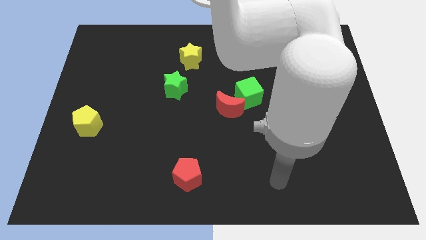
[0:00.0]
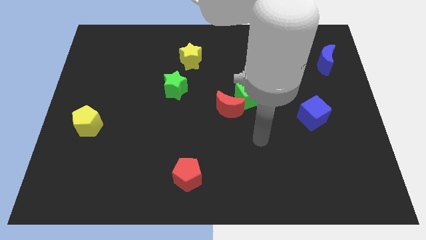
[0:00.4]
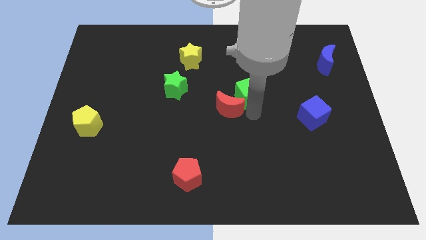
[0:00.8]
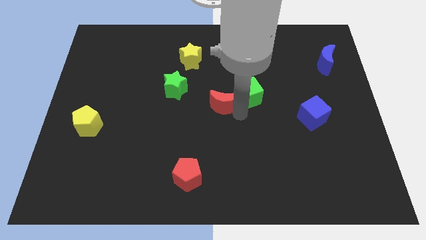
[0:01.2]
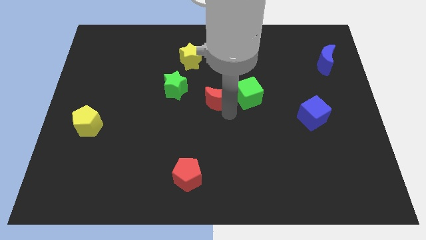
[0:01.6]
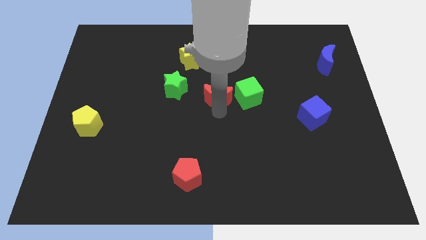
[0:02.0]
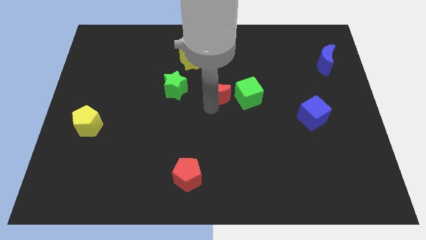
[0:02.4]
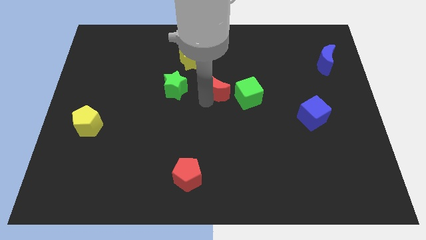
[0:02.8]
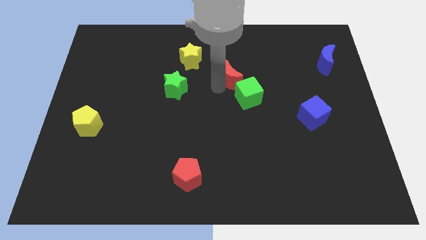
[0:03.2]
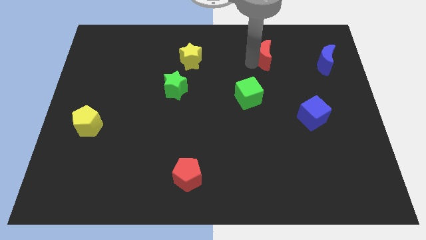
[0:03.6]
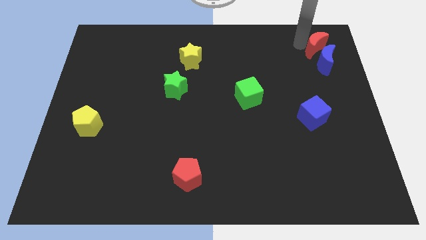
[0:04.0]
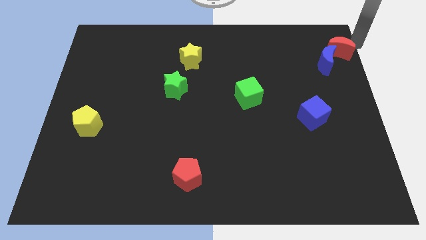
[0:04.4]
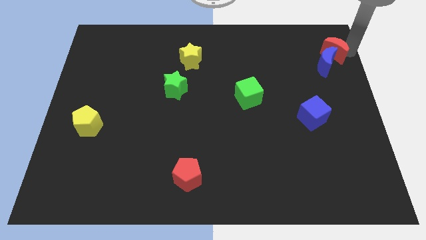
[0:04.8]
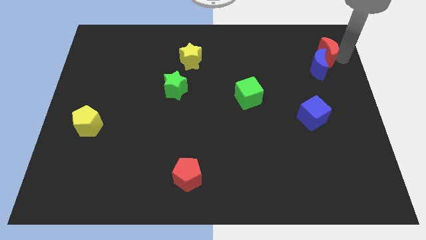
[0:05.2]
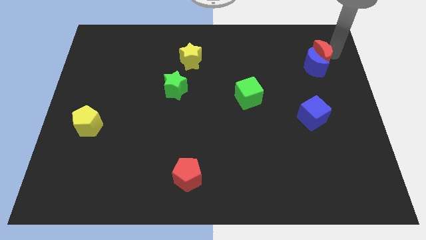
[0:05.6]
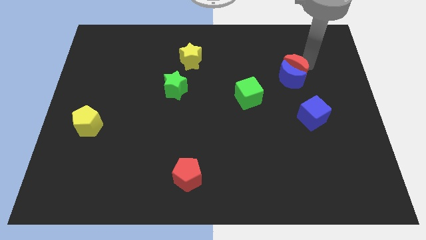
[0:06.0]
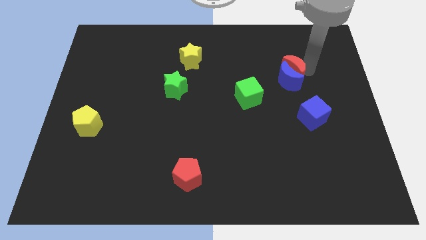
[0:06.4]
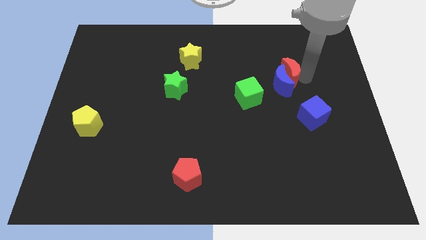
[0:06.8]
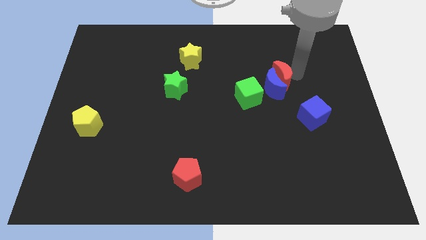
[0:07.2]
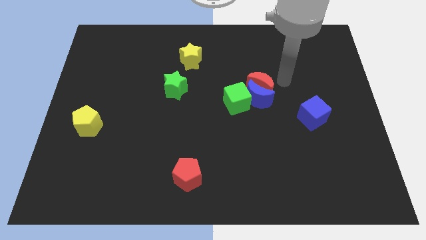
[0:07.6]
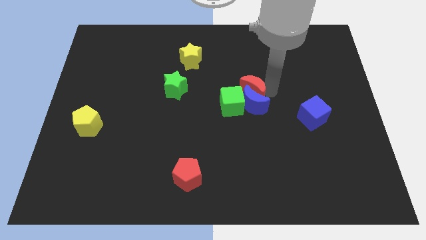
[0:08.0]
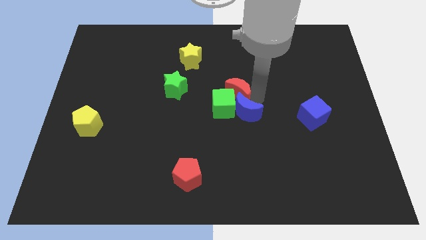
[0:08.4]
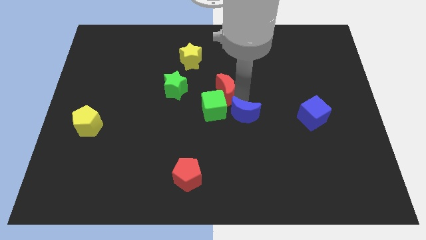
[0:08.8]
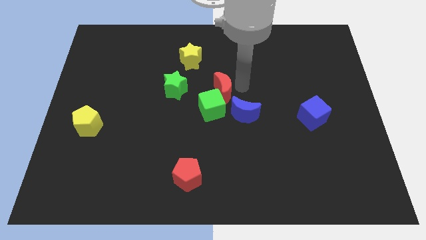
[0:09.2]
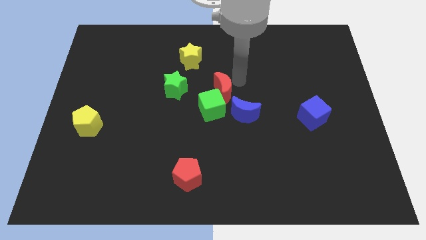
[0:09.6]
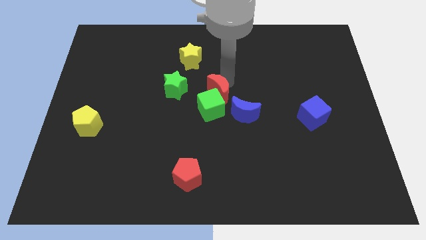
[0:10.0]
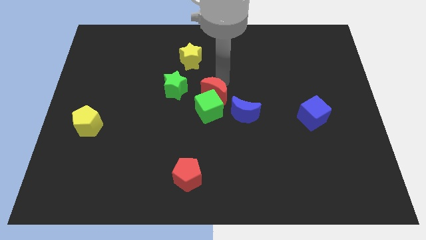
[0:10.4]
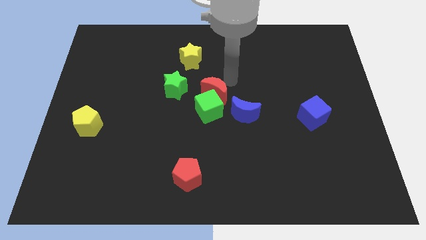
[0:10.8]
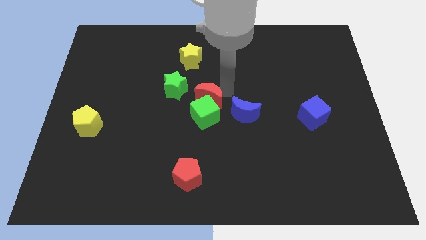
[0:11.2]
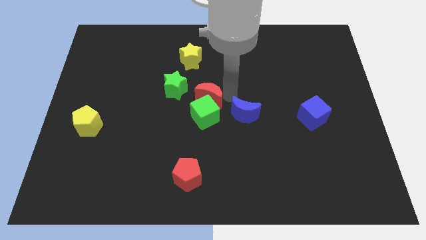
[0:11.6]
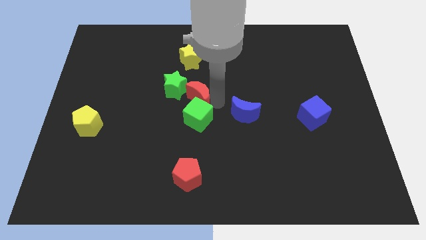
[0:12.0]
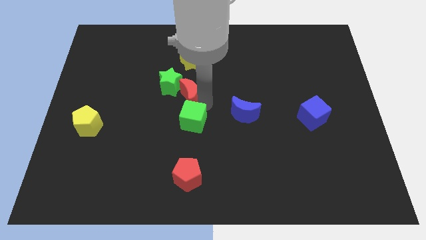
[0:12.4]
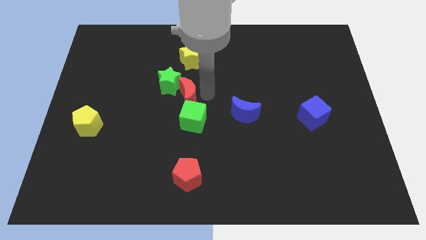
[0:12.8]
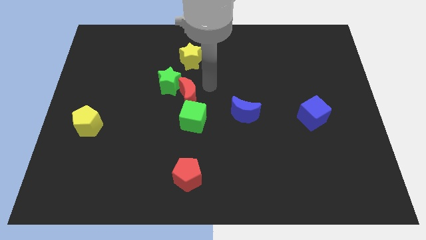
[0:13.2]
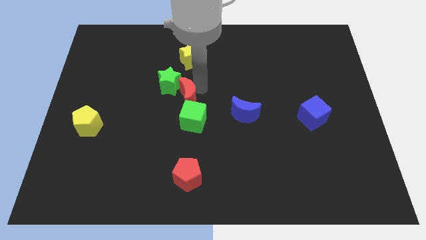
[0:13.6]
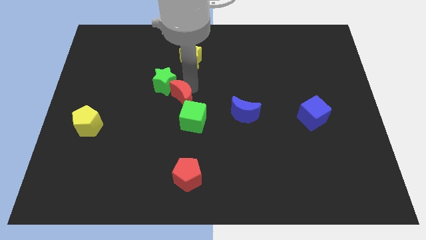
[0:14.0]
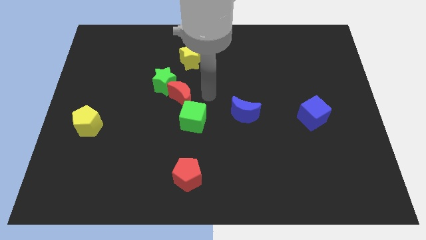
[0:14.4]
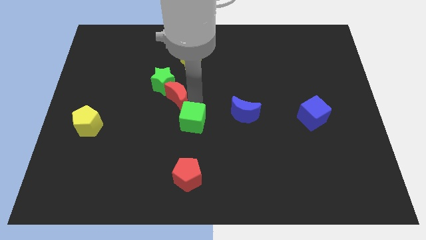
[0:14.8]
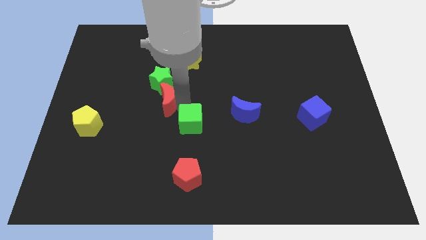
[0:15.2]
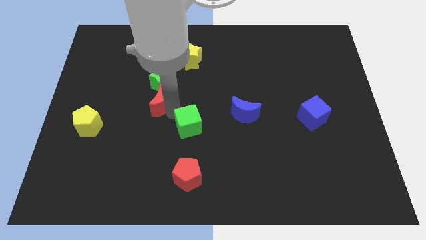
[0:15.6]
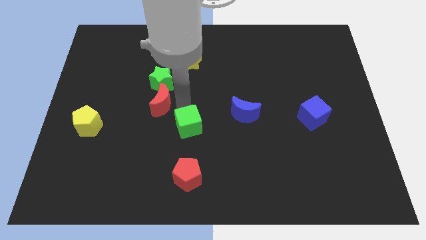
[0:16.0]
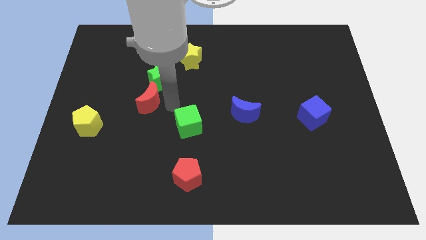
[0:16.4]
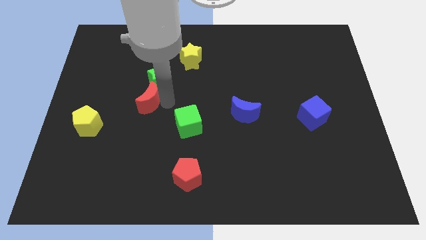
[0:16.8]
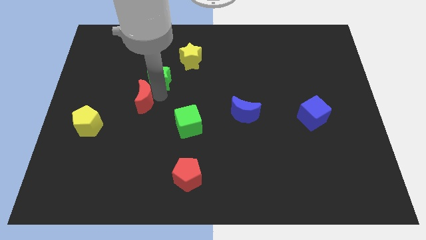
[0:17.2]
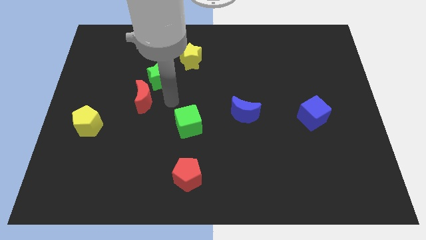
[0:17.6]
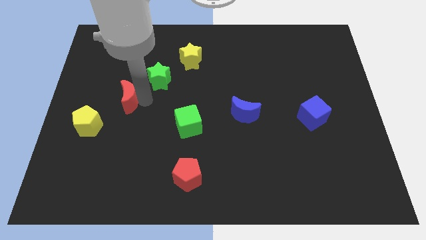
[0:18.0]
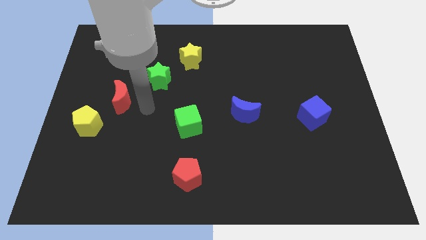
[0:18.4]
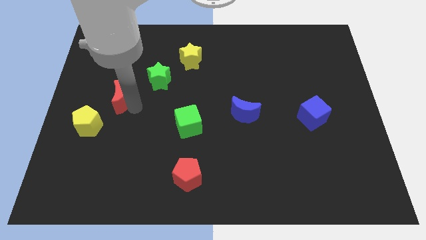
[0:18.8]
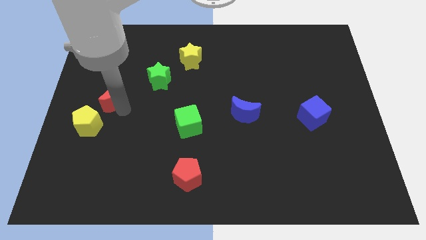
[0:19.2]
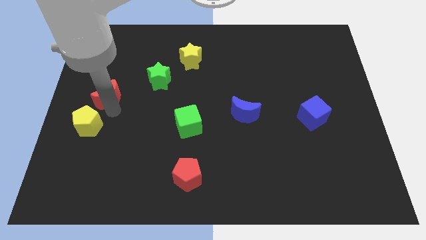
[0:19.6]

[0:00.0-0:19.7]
slide the red moon to the left side

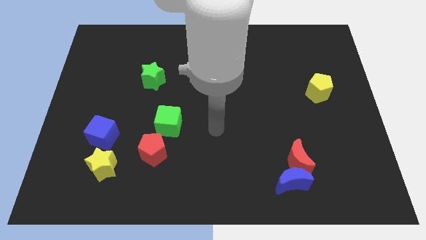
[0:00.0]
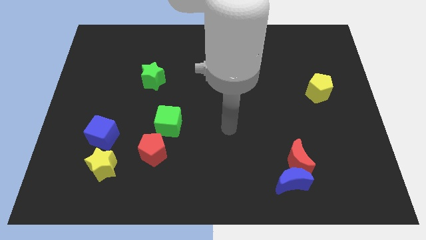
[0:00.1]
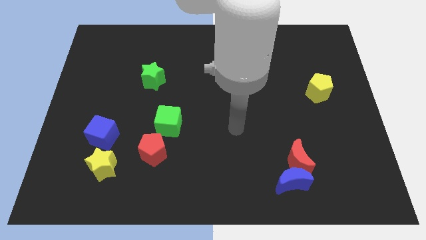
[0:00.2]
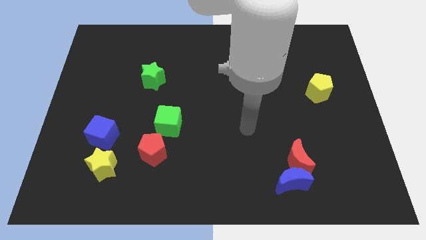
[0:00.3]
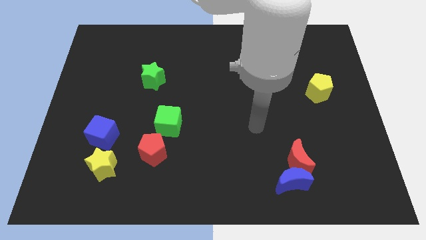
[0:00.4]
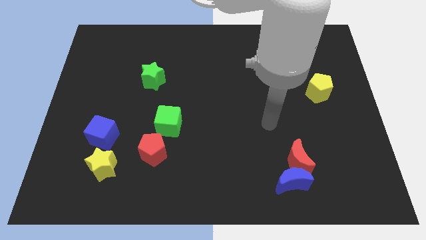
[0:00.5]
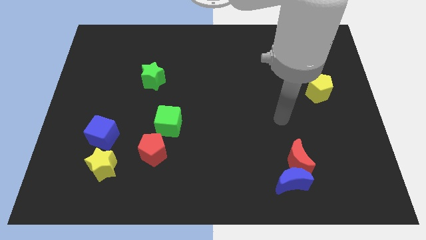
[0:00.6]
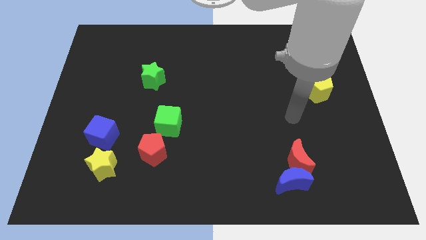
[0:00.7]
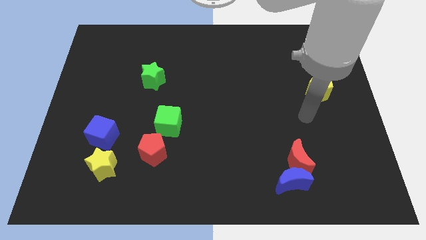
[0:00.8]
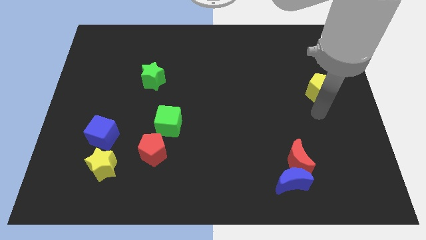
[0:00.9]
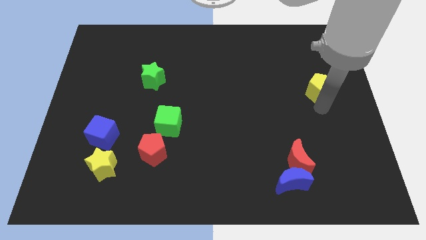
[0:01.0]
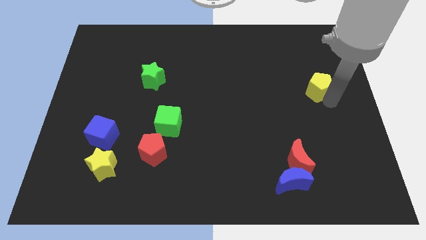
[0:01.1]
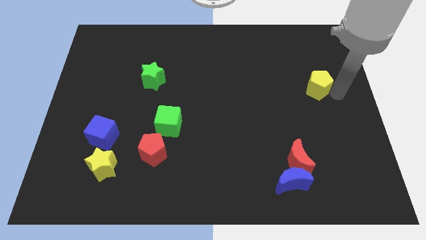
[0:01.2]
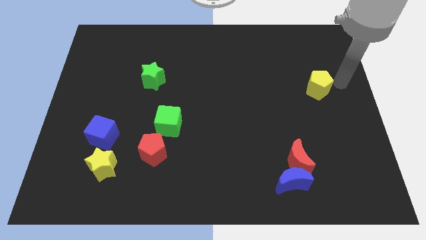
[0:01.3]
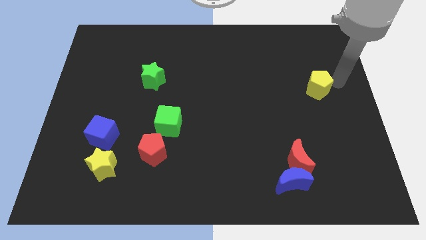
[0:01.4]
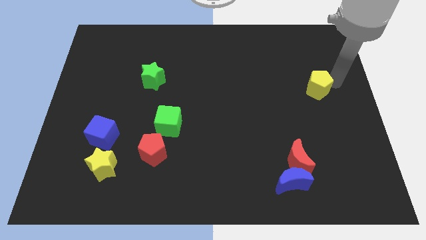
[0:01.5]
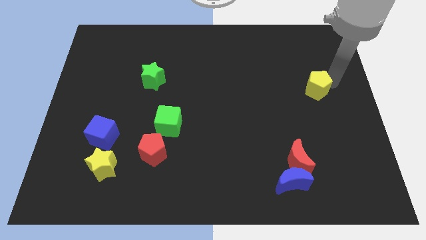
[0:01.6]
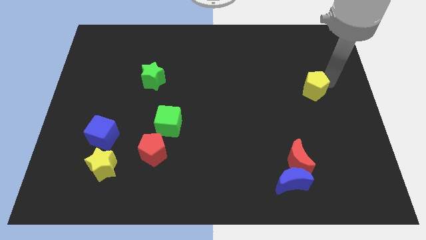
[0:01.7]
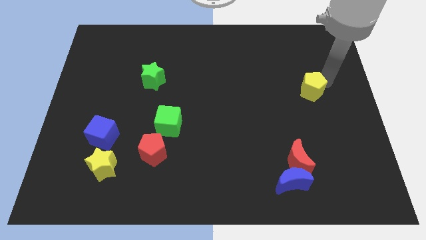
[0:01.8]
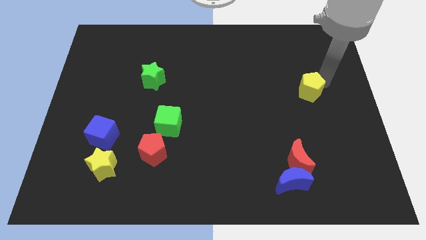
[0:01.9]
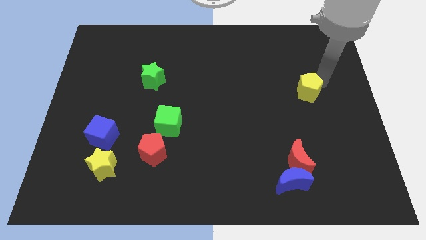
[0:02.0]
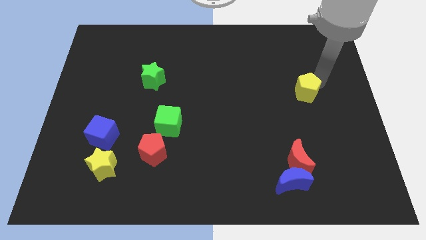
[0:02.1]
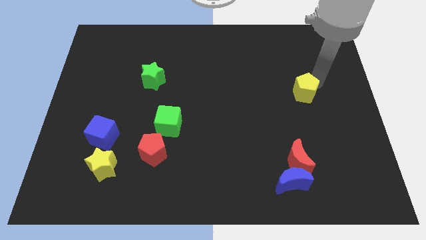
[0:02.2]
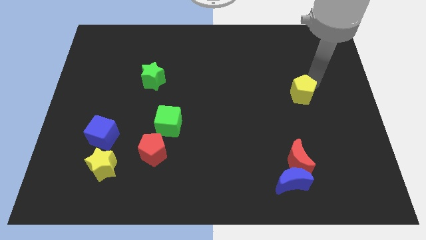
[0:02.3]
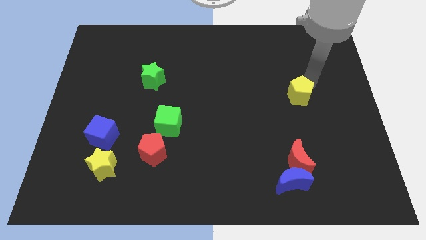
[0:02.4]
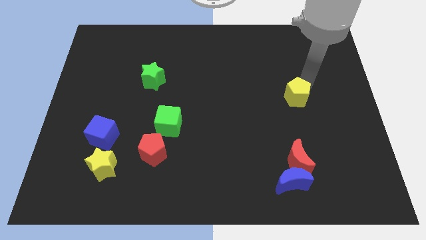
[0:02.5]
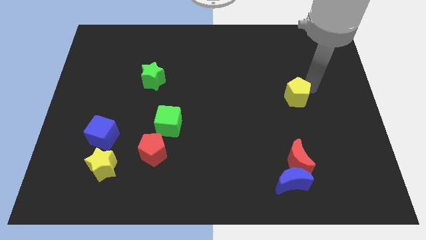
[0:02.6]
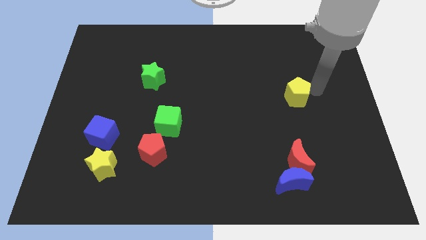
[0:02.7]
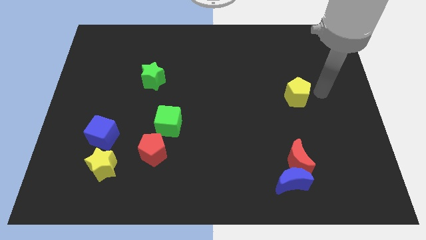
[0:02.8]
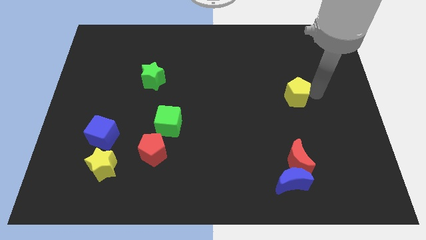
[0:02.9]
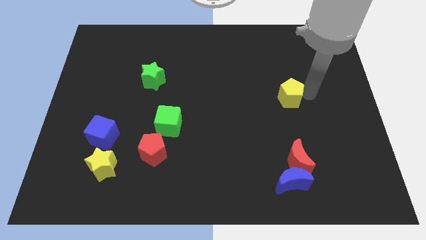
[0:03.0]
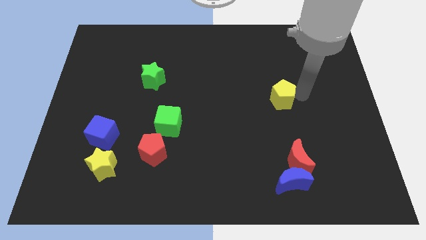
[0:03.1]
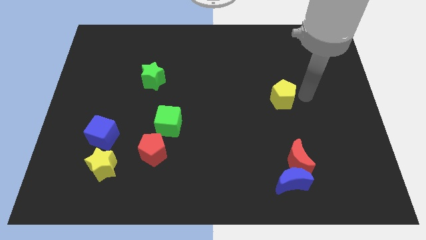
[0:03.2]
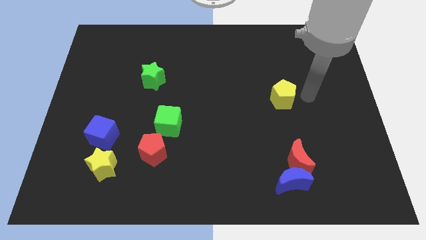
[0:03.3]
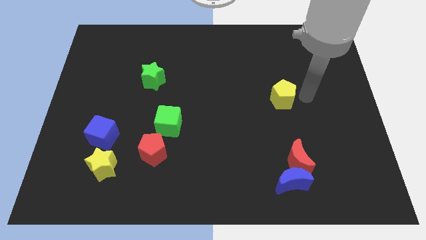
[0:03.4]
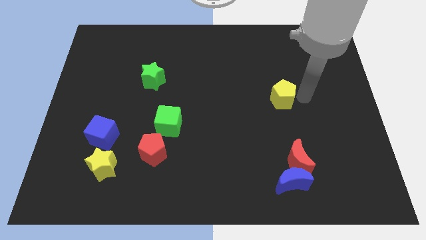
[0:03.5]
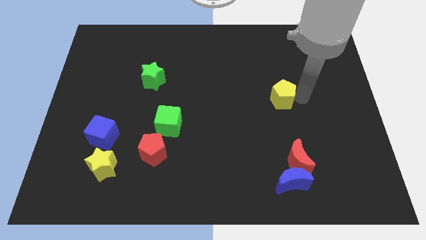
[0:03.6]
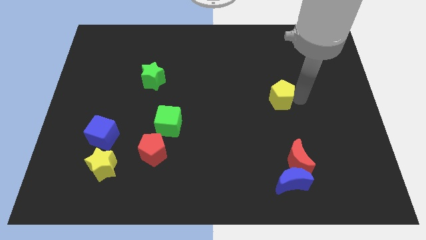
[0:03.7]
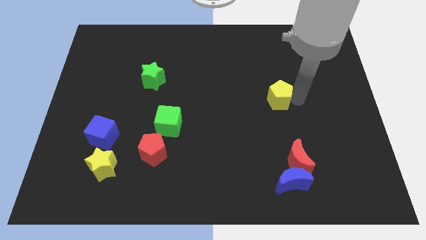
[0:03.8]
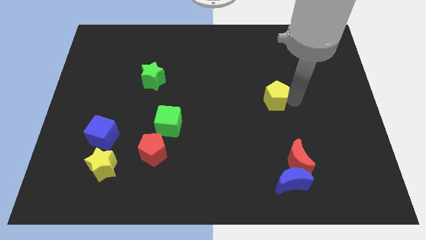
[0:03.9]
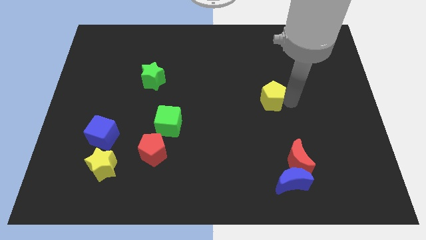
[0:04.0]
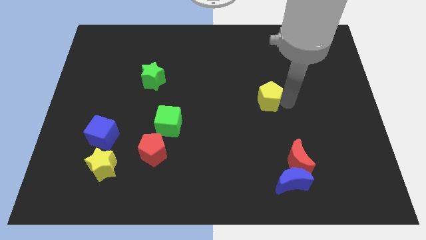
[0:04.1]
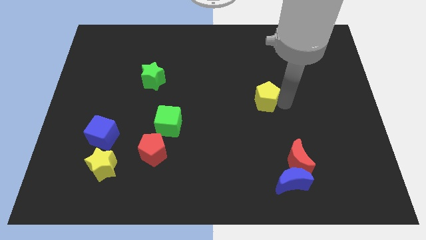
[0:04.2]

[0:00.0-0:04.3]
push the yellow pentagon to the center
